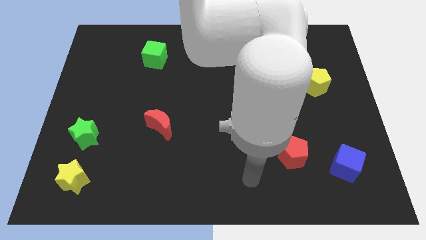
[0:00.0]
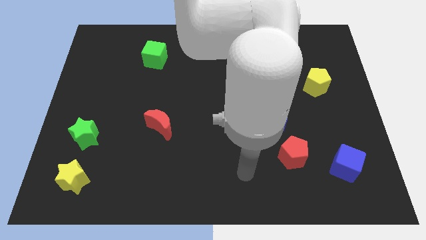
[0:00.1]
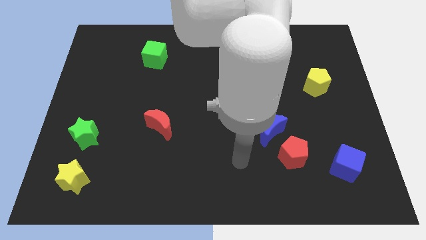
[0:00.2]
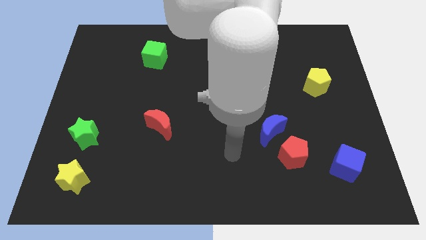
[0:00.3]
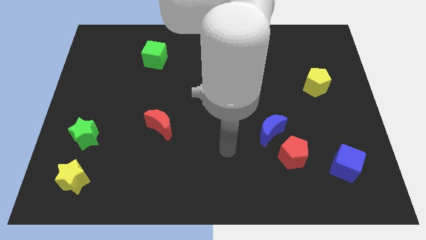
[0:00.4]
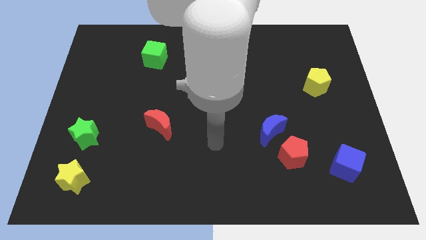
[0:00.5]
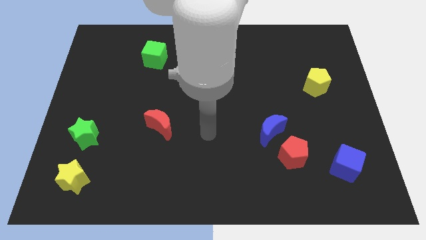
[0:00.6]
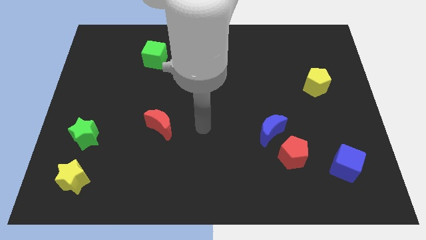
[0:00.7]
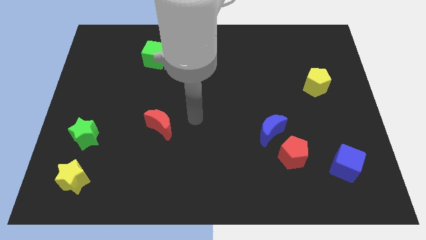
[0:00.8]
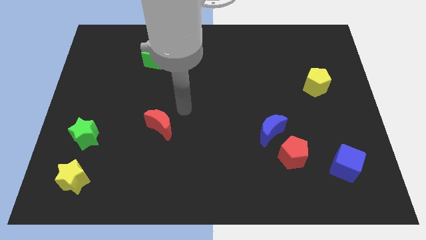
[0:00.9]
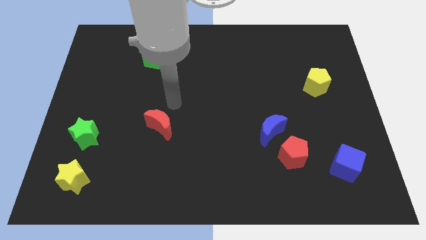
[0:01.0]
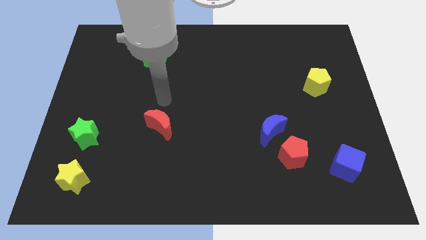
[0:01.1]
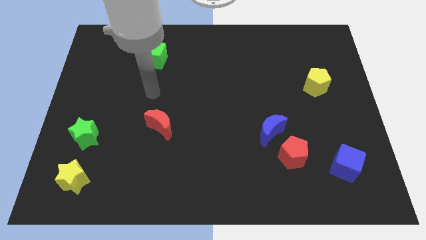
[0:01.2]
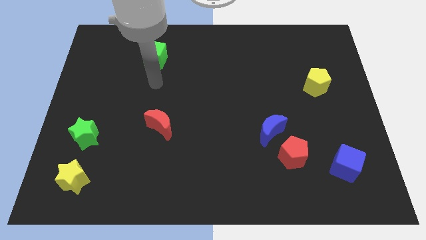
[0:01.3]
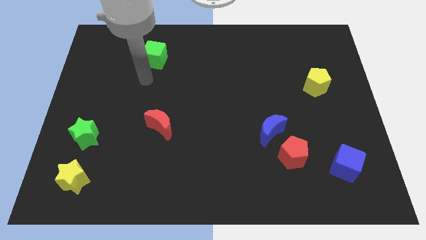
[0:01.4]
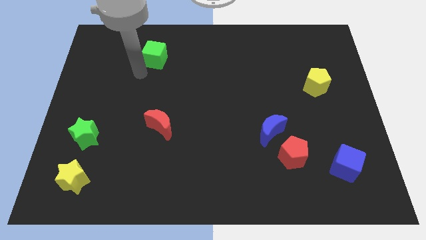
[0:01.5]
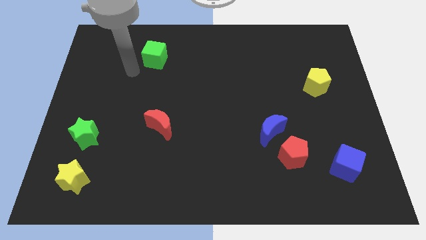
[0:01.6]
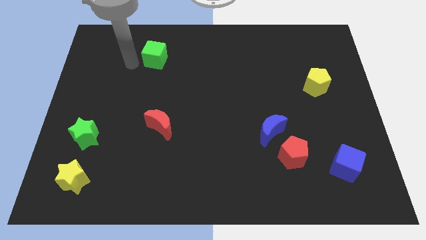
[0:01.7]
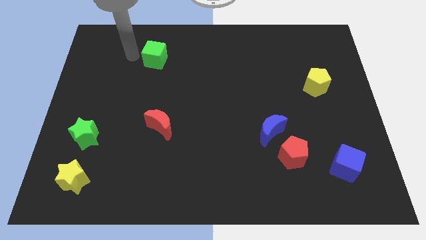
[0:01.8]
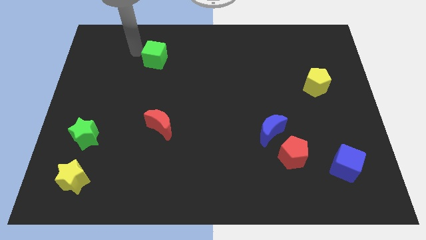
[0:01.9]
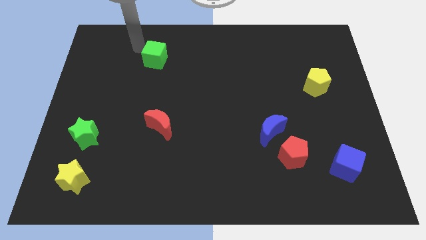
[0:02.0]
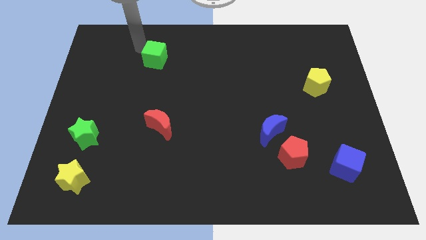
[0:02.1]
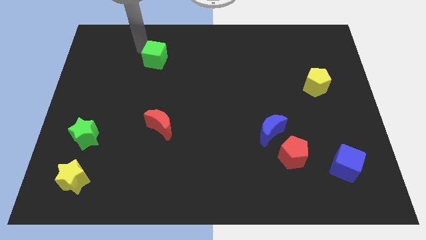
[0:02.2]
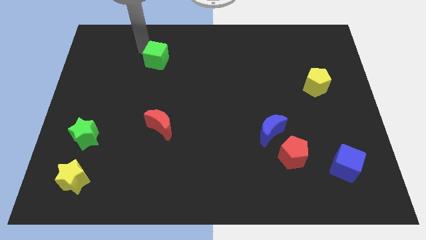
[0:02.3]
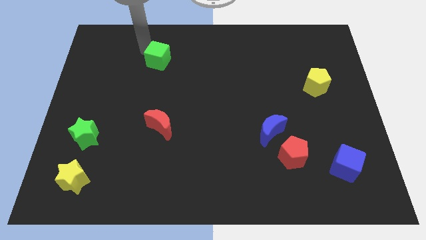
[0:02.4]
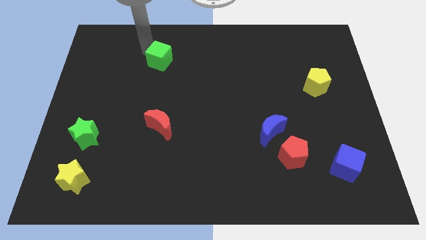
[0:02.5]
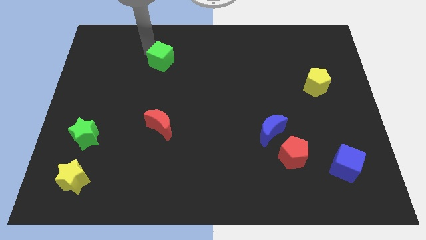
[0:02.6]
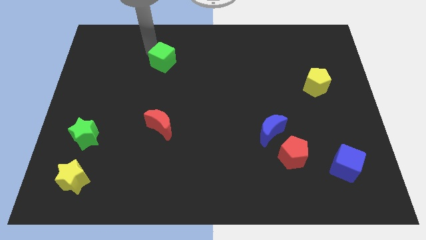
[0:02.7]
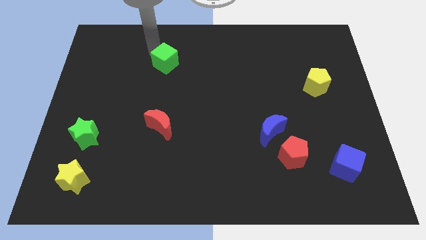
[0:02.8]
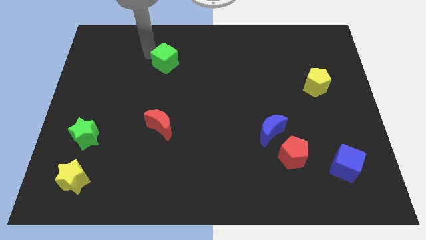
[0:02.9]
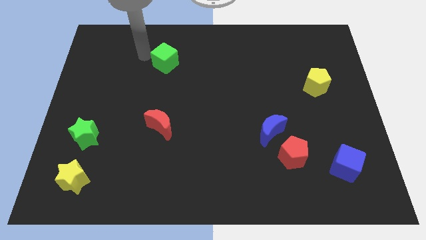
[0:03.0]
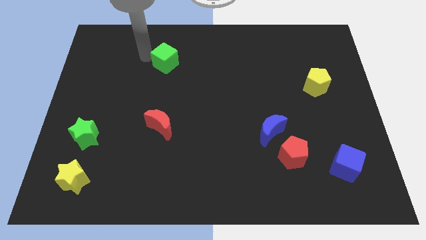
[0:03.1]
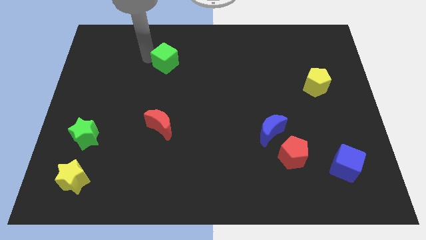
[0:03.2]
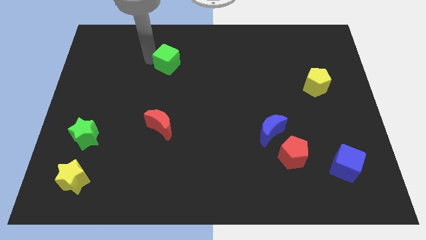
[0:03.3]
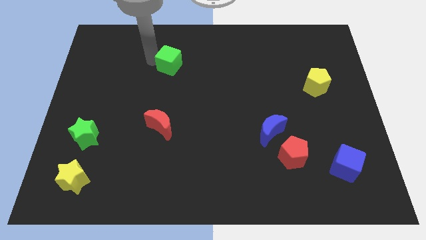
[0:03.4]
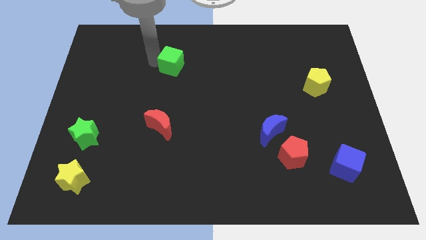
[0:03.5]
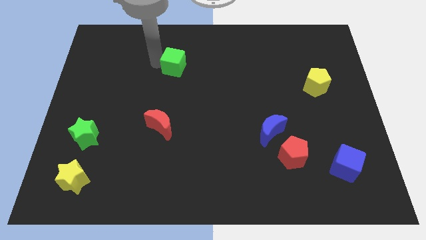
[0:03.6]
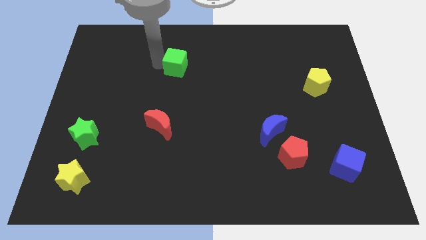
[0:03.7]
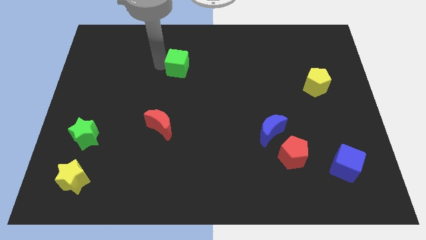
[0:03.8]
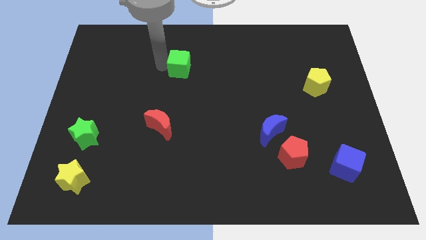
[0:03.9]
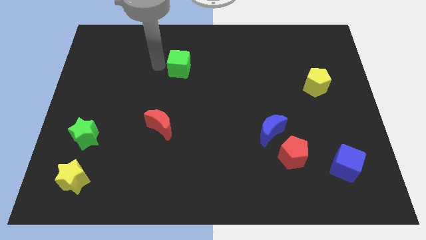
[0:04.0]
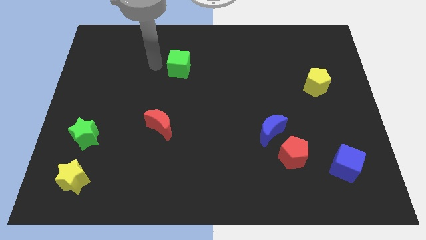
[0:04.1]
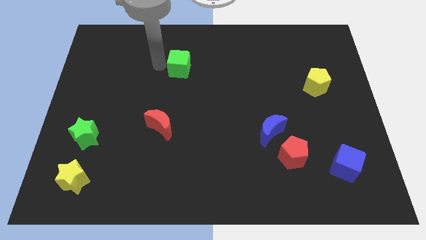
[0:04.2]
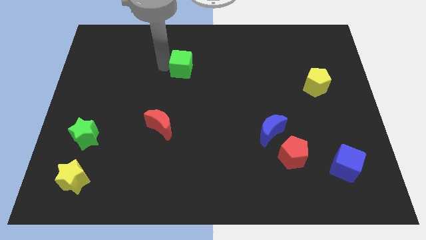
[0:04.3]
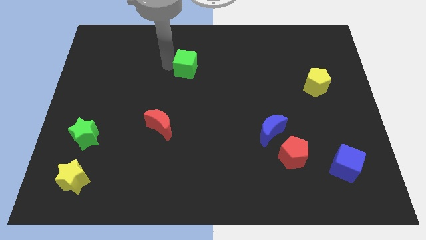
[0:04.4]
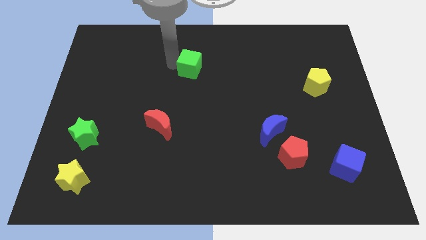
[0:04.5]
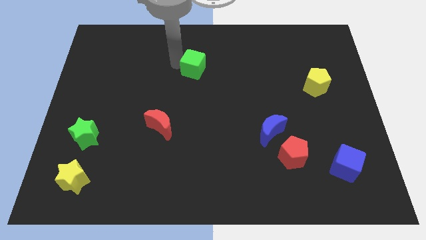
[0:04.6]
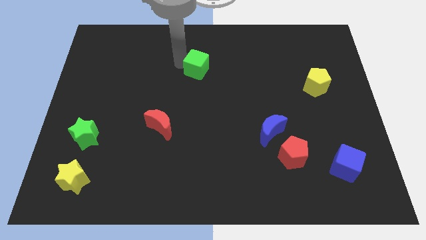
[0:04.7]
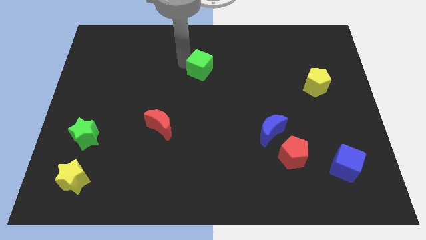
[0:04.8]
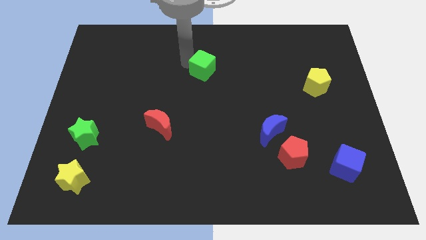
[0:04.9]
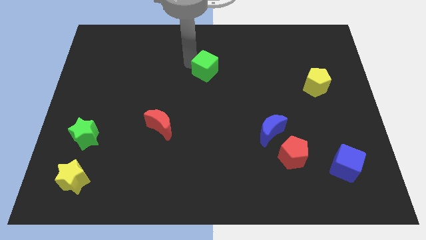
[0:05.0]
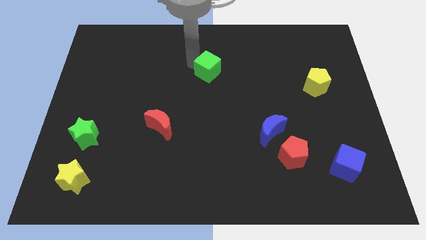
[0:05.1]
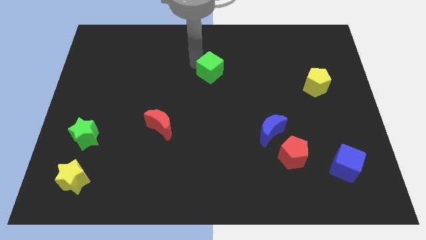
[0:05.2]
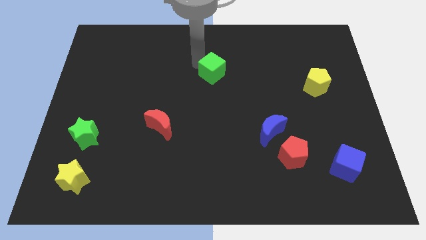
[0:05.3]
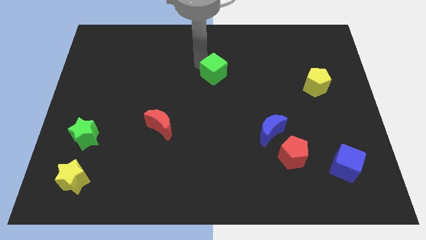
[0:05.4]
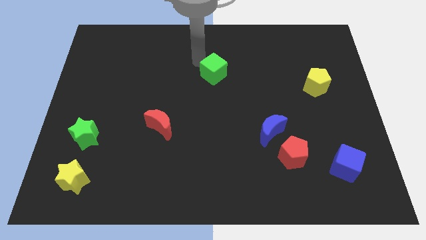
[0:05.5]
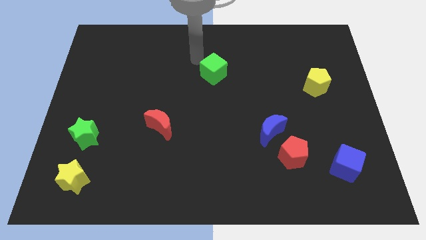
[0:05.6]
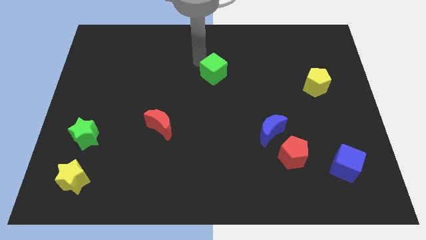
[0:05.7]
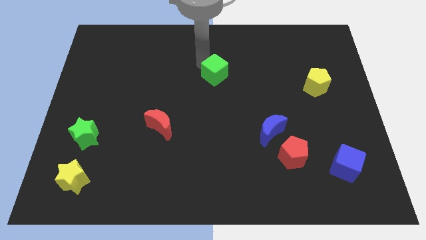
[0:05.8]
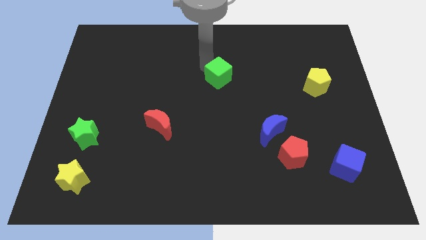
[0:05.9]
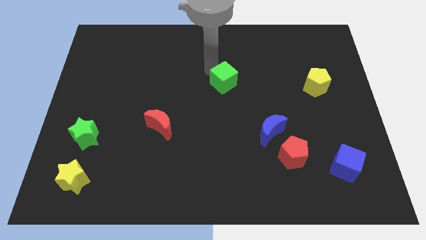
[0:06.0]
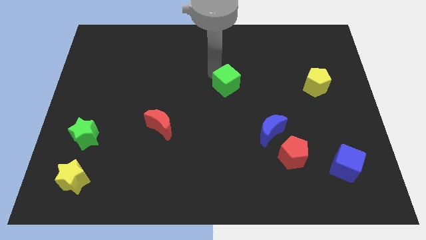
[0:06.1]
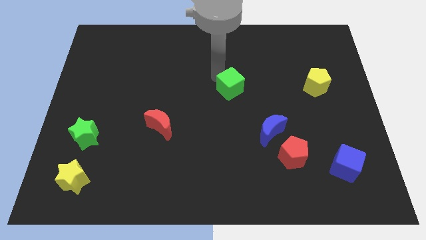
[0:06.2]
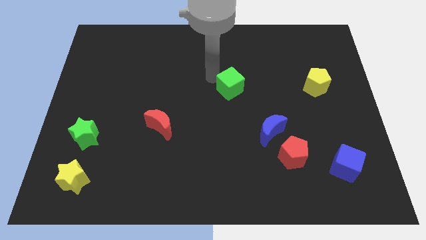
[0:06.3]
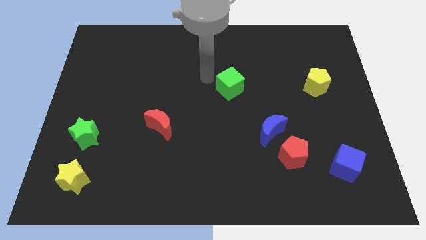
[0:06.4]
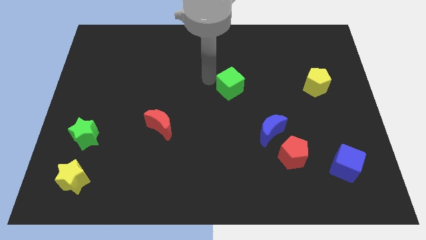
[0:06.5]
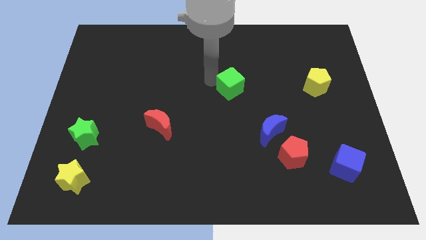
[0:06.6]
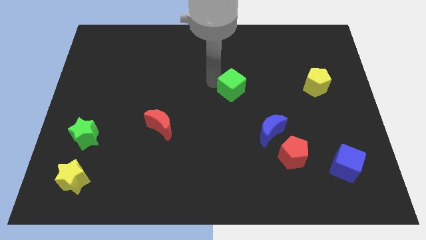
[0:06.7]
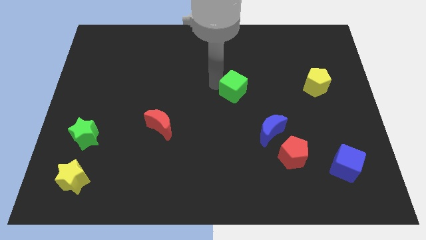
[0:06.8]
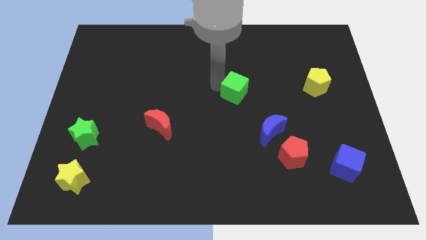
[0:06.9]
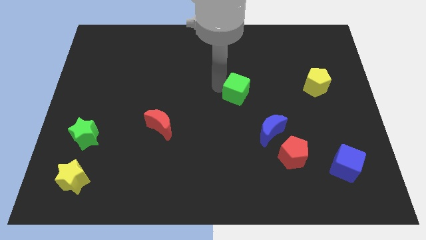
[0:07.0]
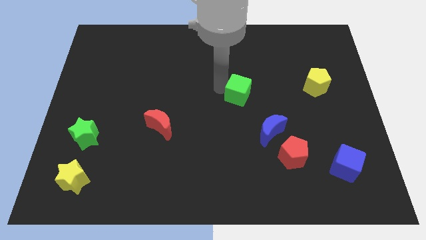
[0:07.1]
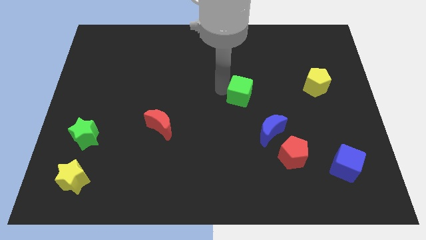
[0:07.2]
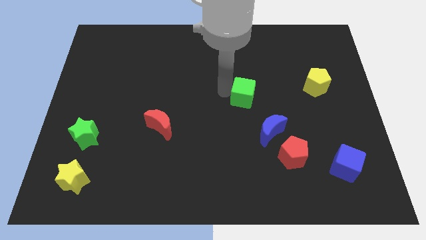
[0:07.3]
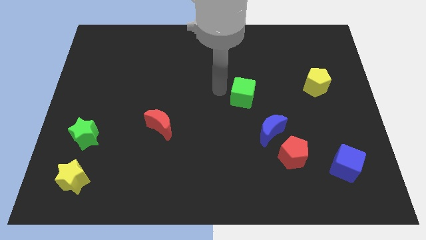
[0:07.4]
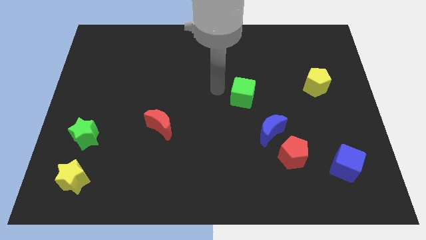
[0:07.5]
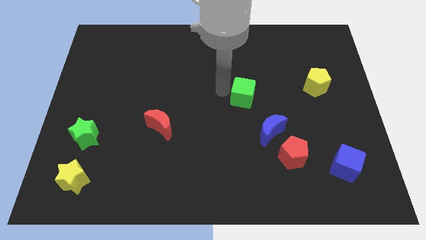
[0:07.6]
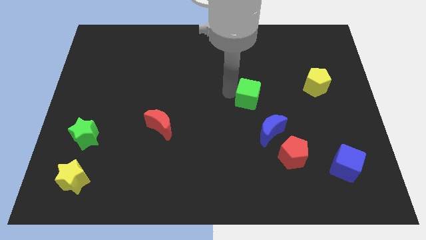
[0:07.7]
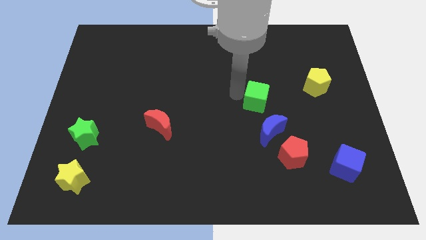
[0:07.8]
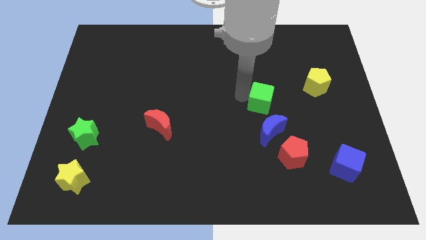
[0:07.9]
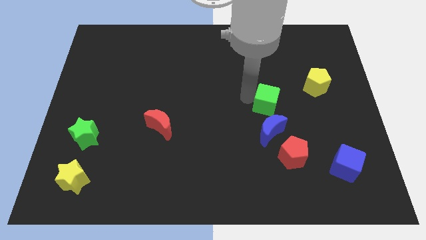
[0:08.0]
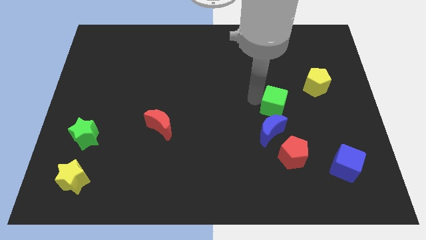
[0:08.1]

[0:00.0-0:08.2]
put the green cube to the top side of the red pentagon
